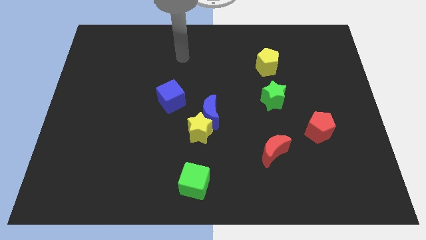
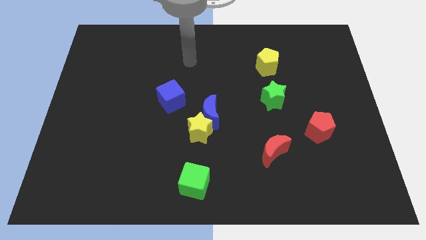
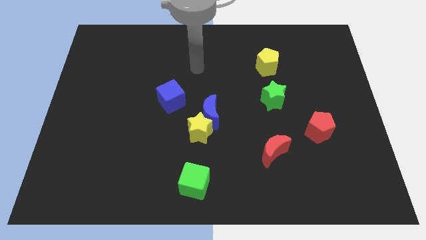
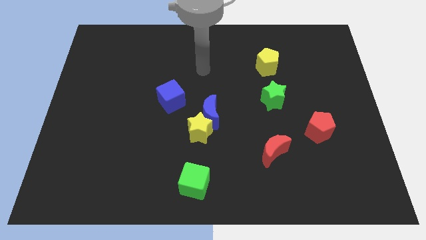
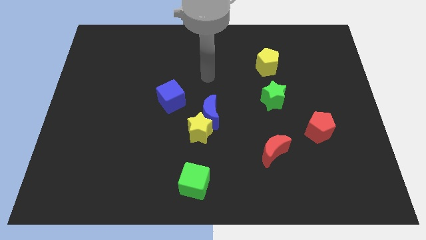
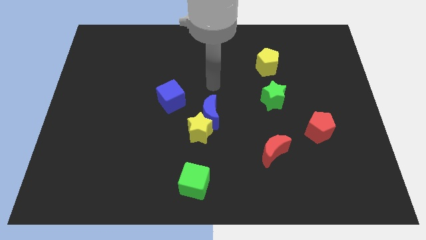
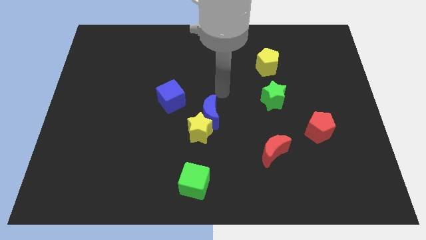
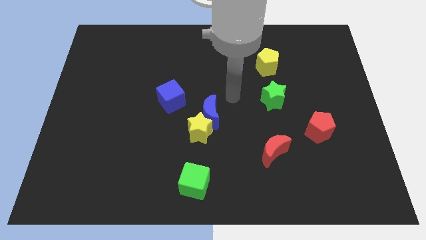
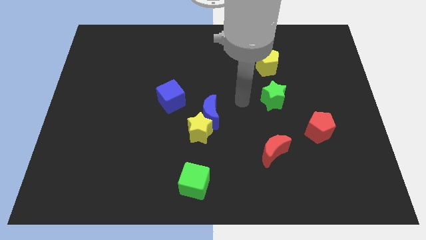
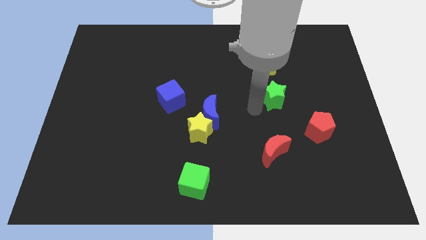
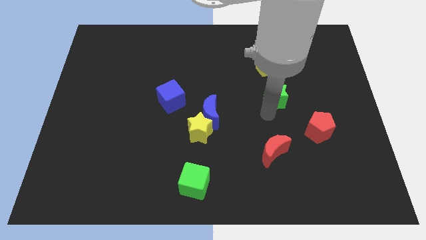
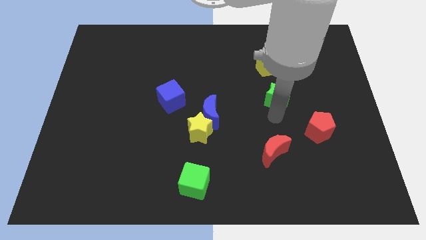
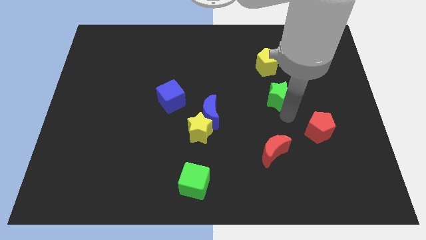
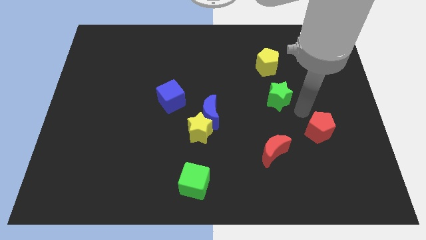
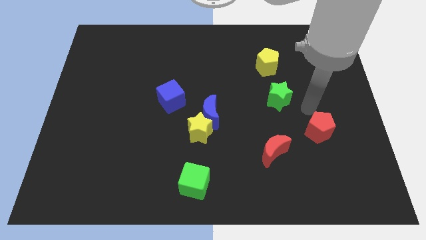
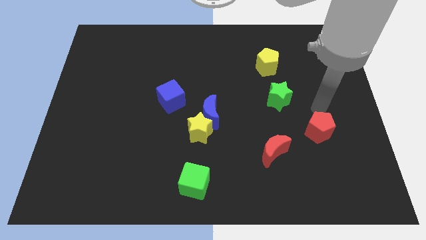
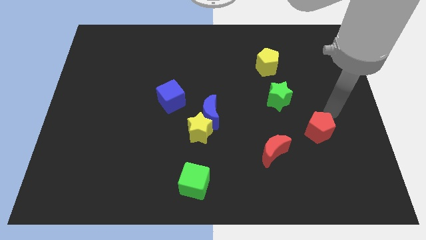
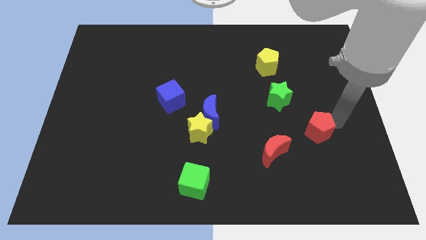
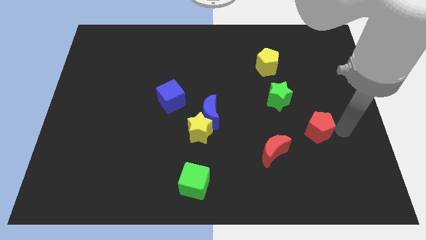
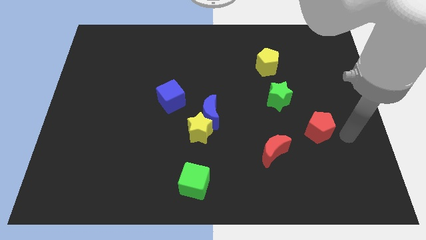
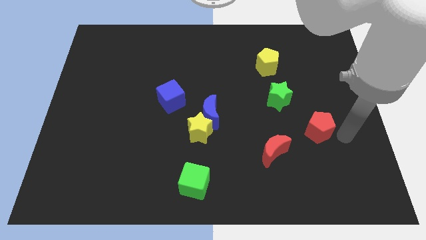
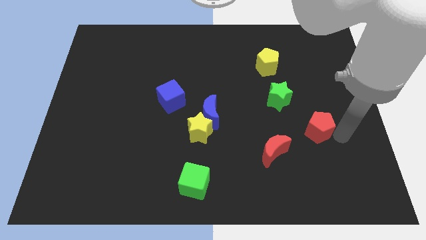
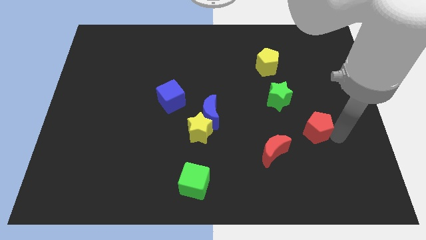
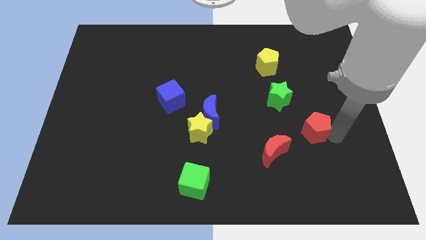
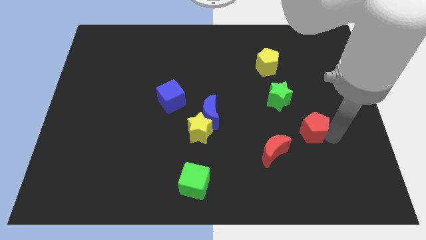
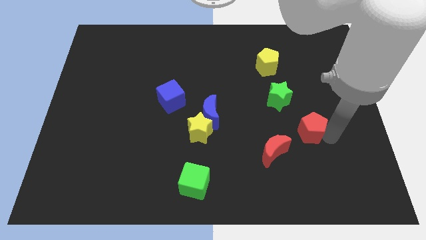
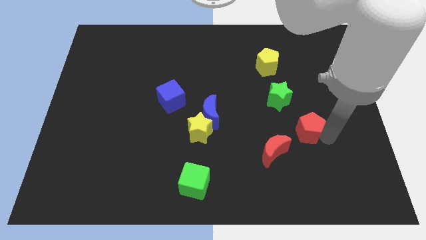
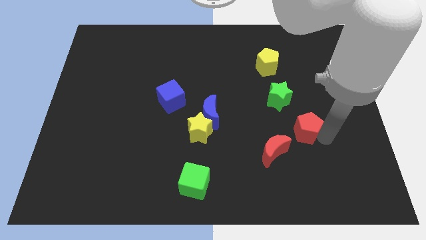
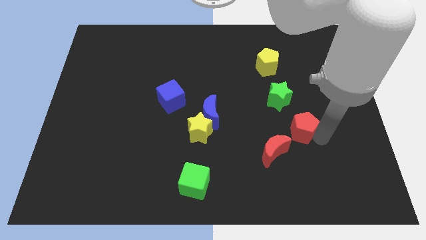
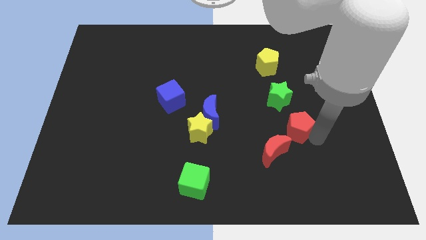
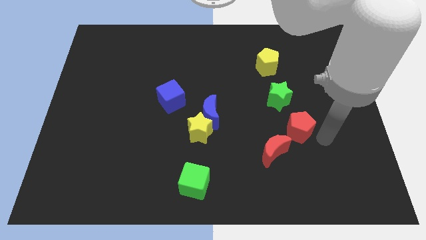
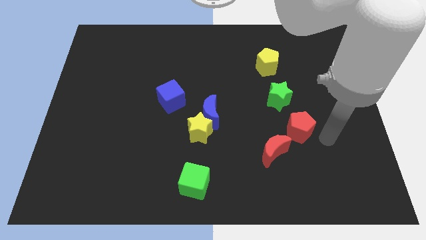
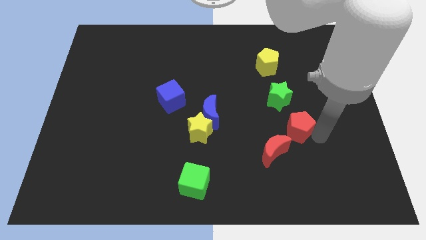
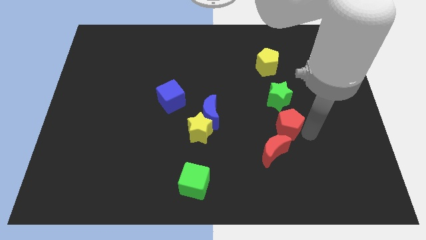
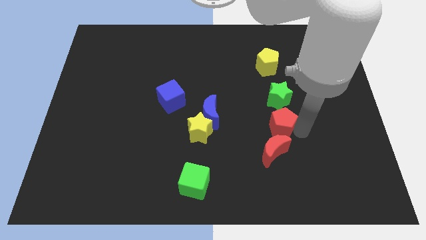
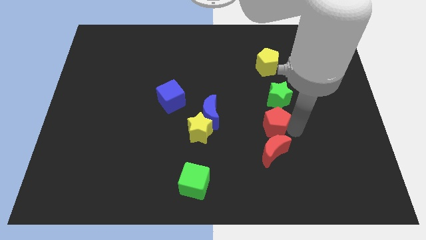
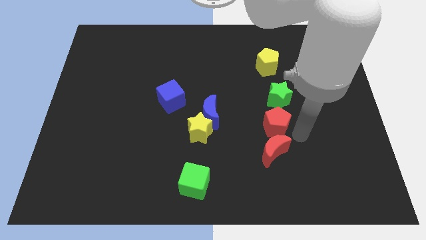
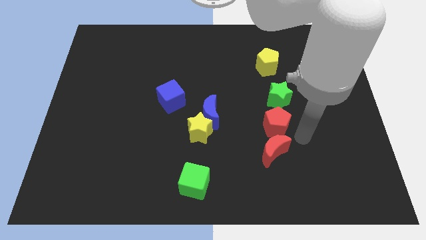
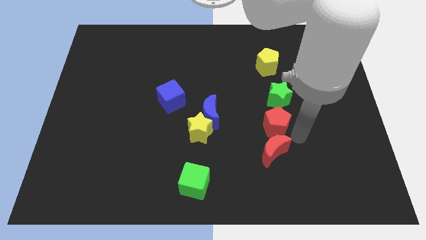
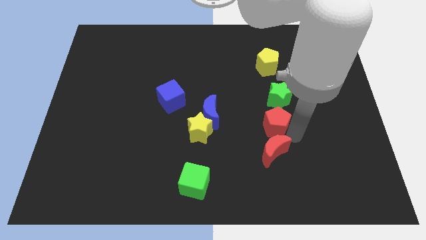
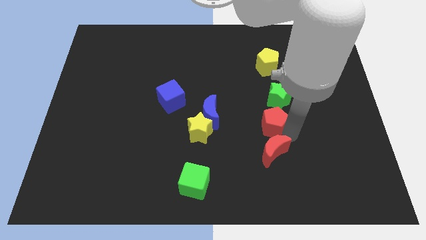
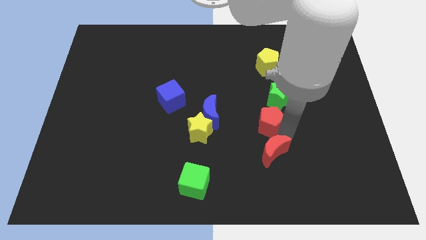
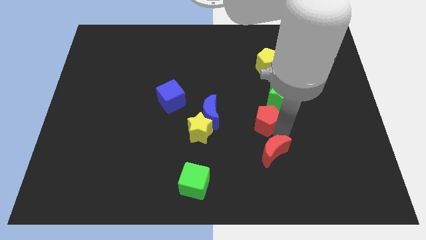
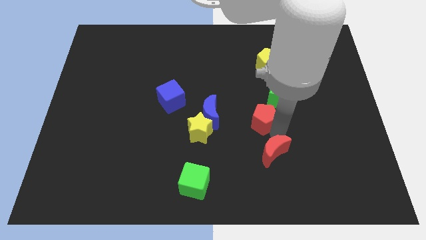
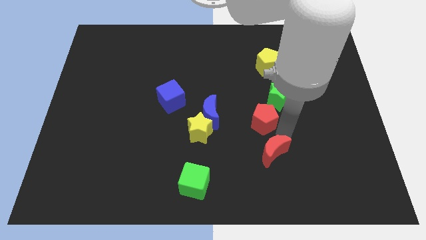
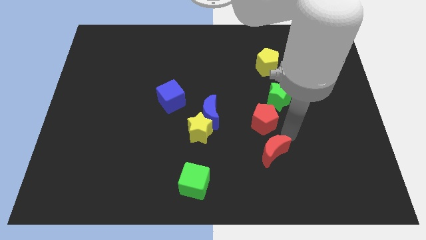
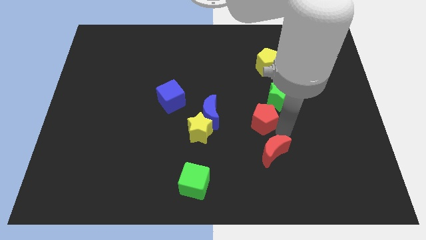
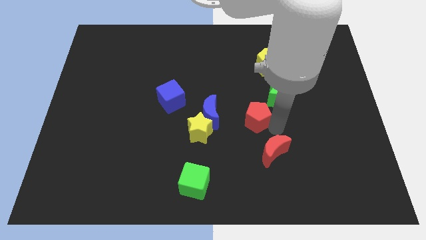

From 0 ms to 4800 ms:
put the red pentagon to the middle of the board

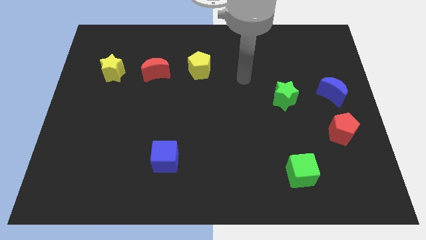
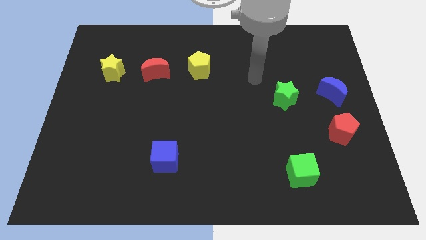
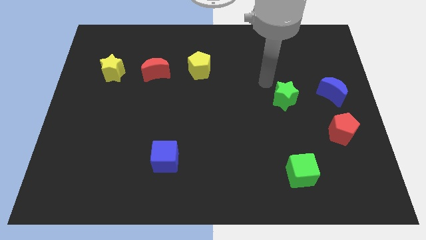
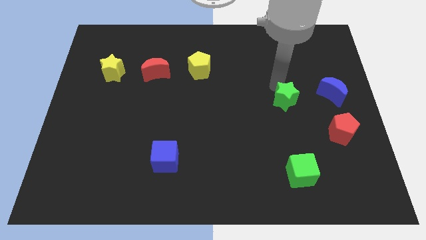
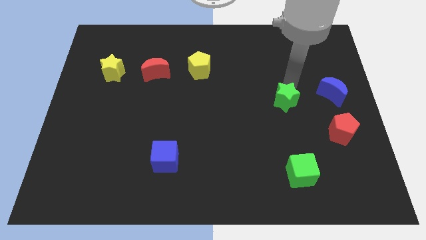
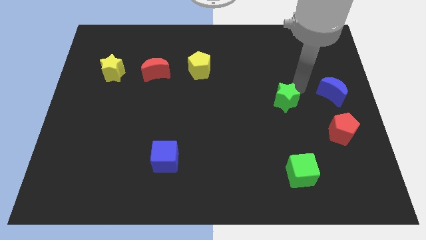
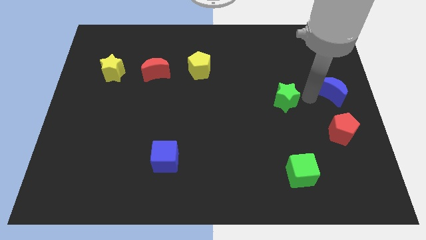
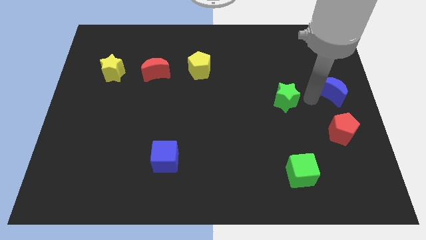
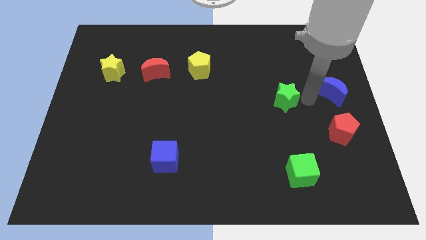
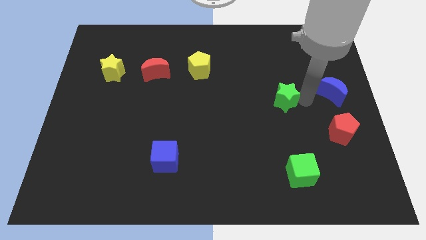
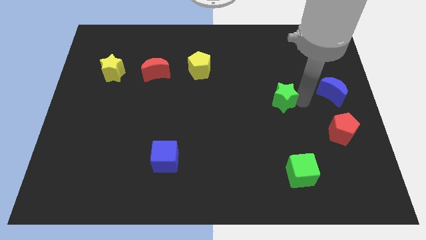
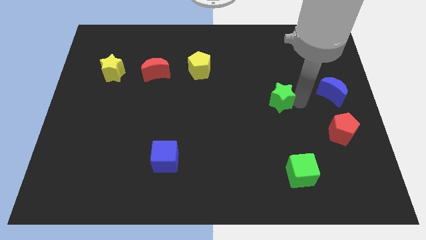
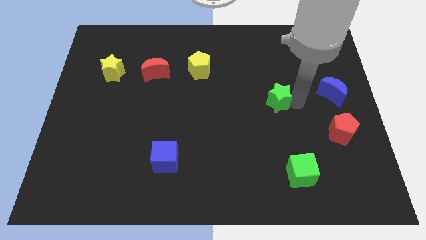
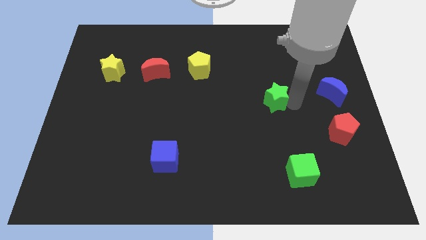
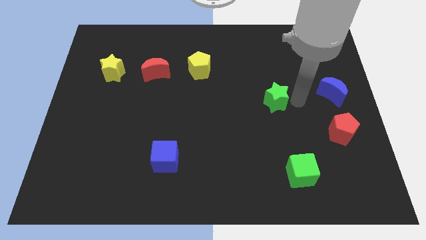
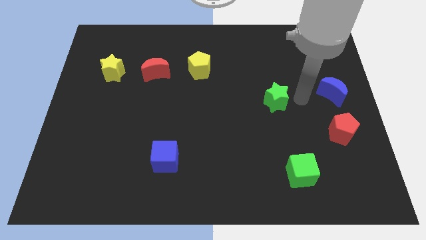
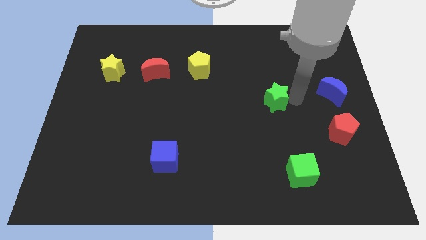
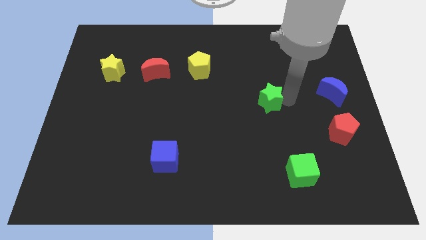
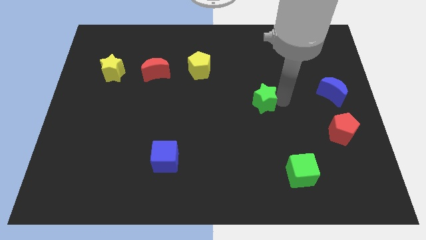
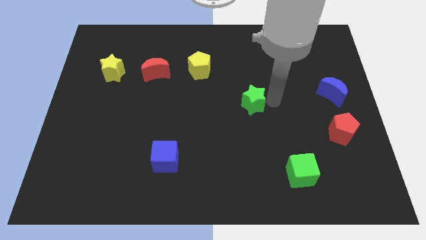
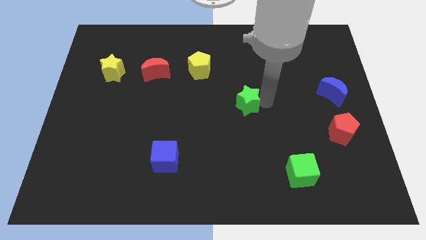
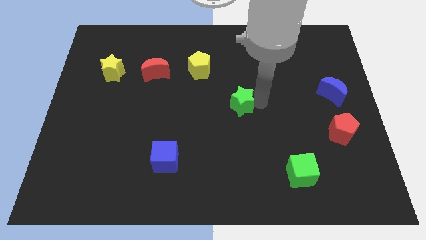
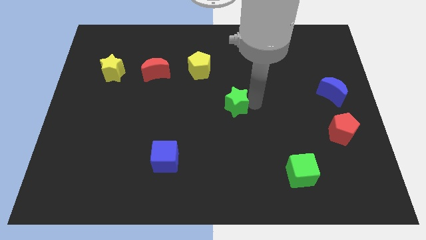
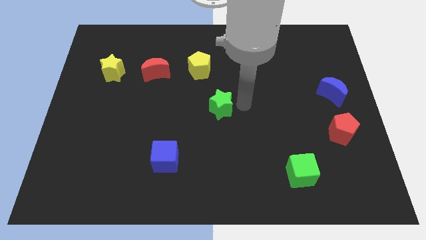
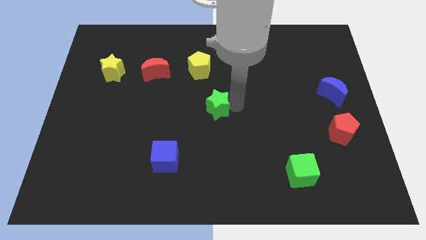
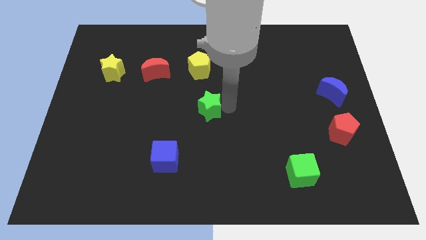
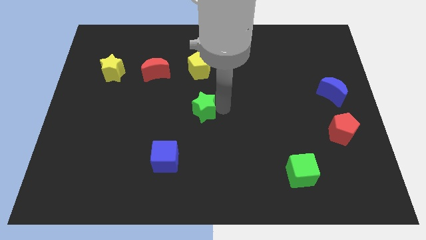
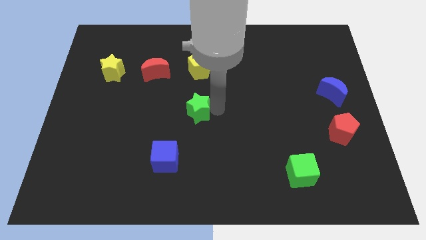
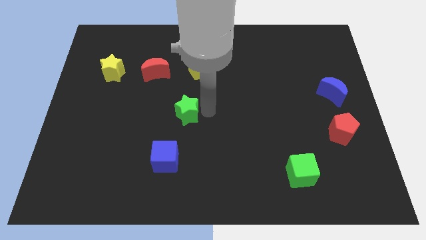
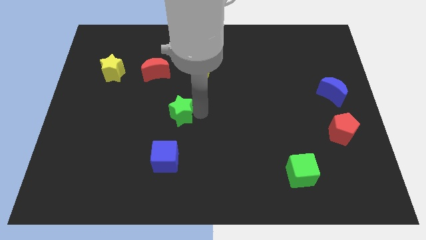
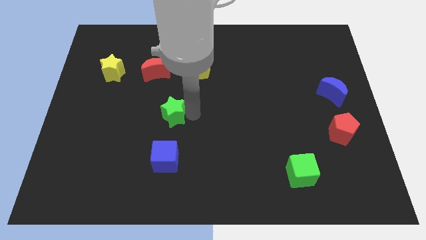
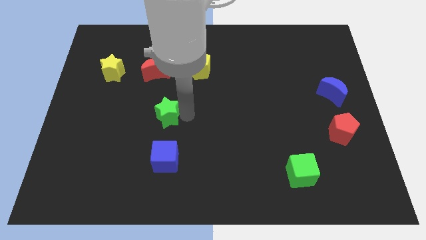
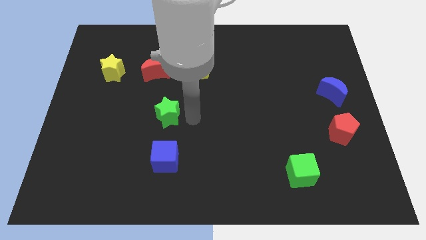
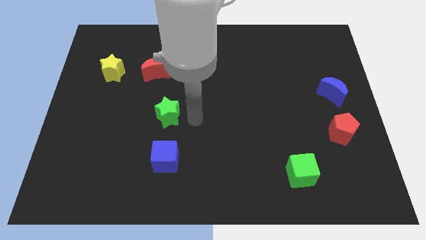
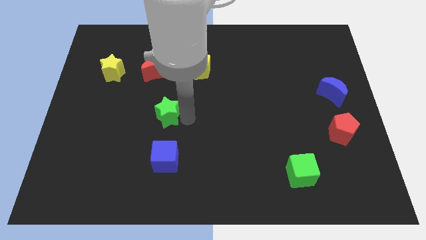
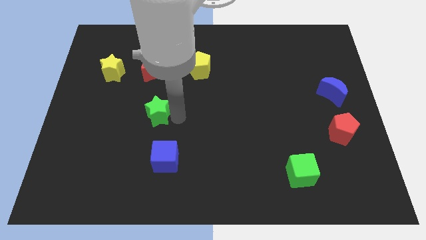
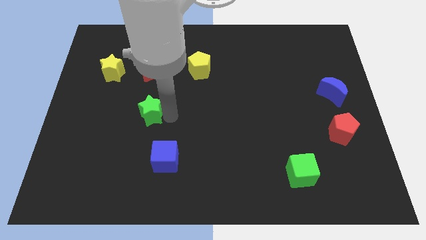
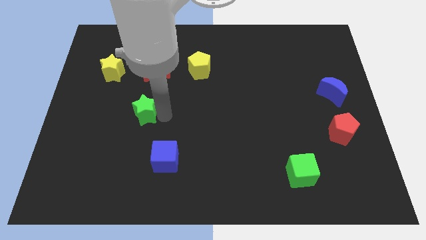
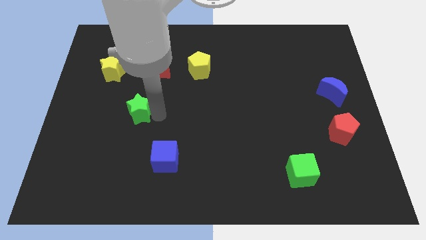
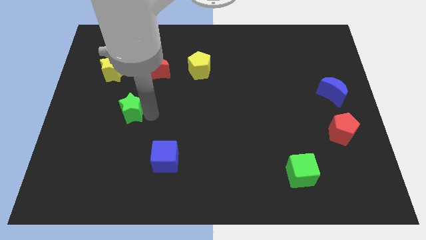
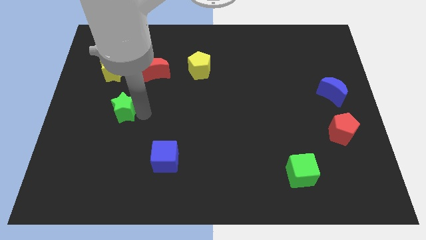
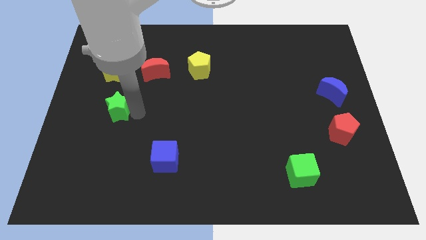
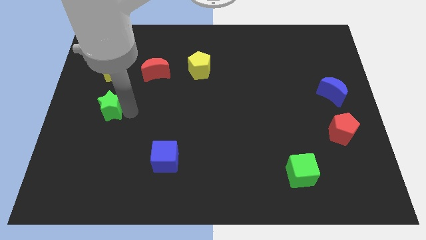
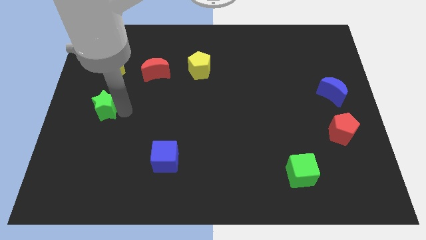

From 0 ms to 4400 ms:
push the green star to the left side of the board
